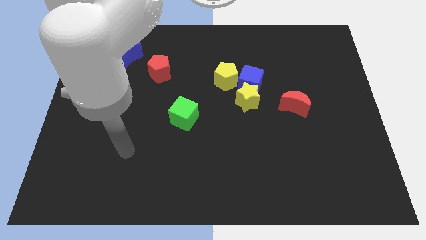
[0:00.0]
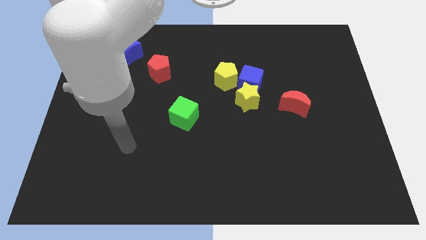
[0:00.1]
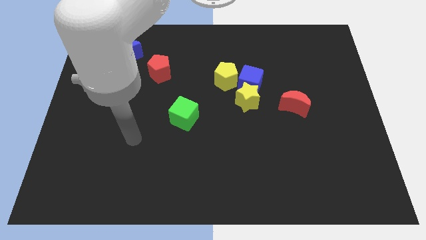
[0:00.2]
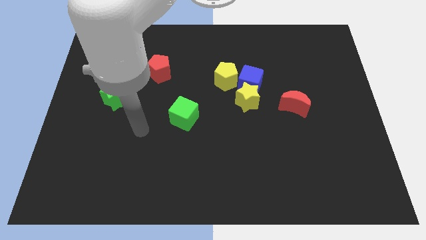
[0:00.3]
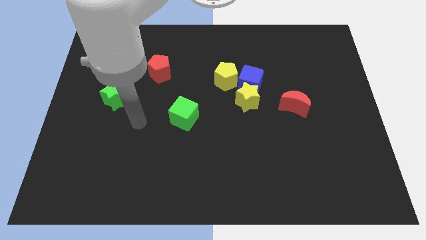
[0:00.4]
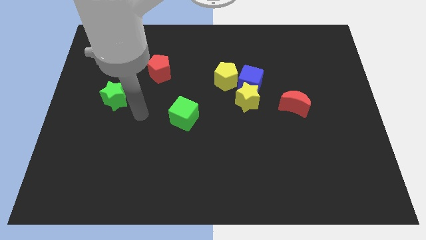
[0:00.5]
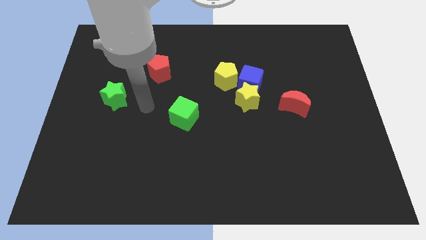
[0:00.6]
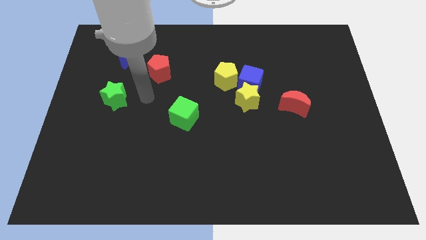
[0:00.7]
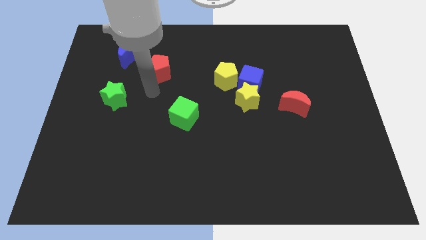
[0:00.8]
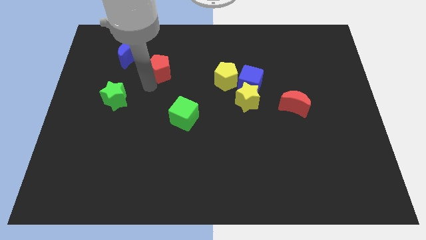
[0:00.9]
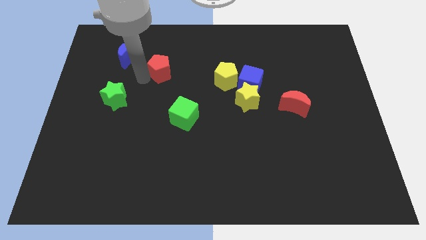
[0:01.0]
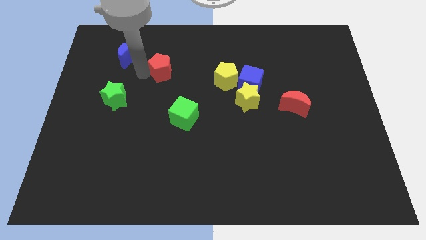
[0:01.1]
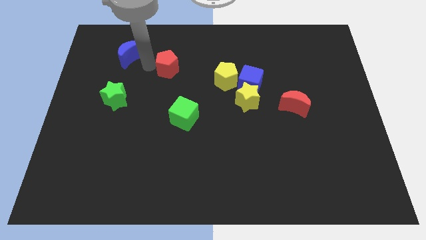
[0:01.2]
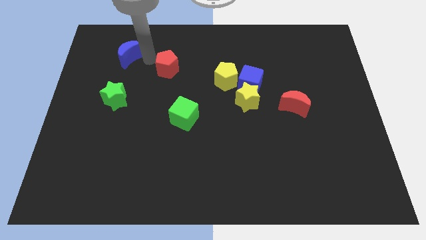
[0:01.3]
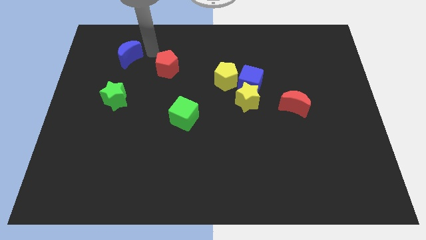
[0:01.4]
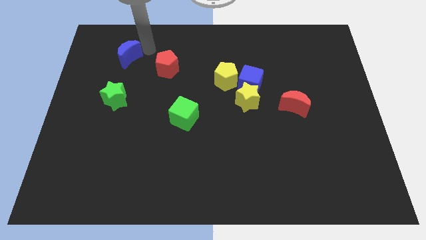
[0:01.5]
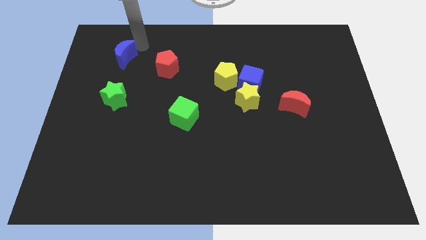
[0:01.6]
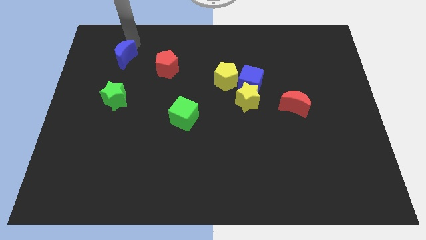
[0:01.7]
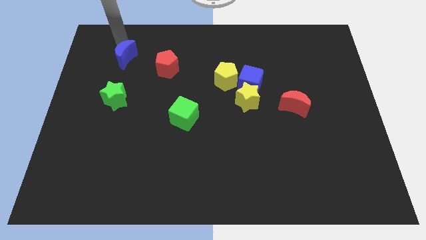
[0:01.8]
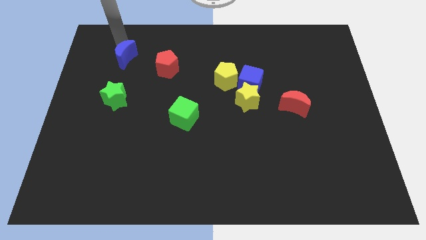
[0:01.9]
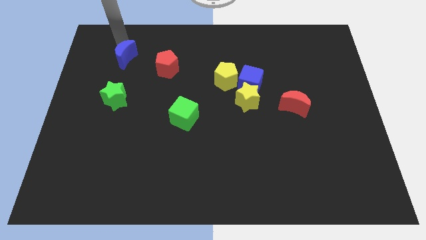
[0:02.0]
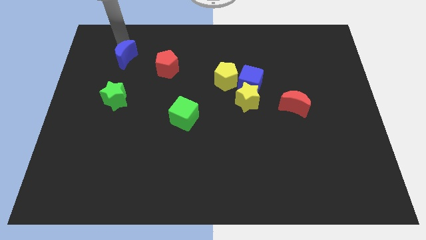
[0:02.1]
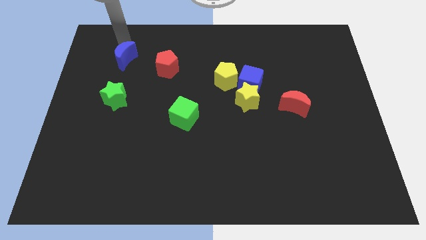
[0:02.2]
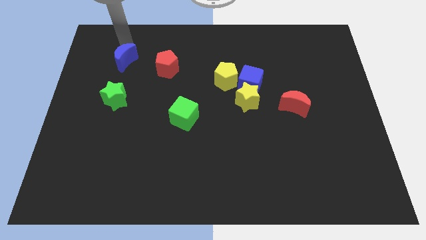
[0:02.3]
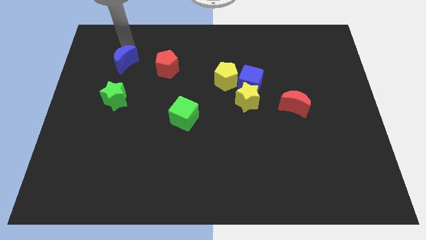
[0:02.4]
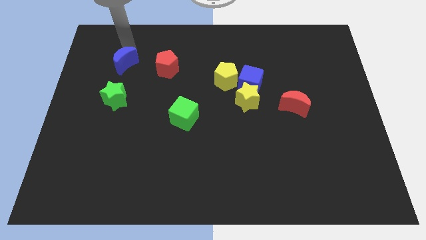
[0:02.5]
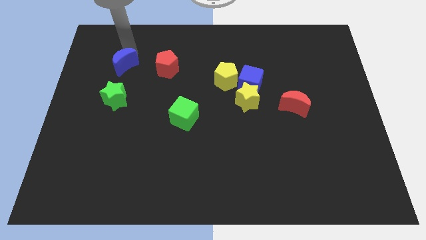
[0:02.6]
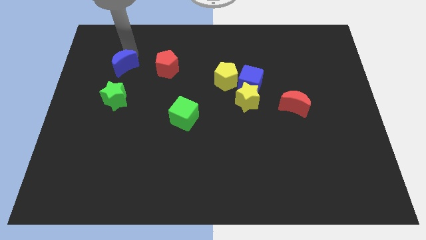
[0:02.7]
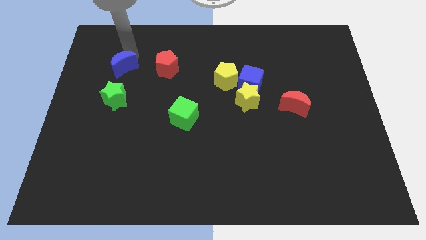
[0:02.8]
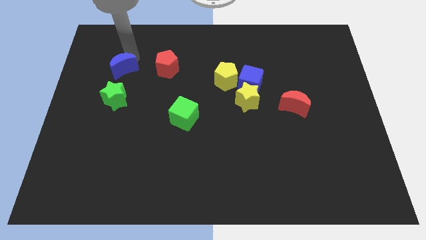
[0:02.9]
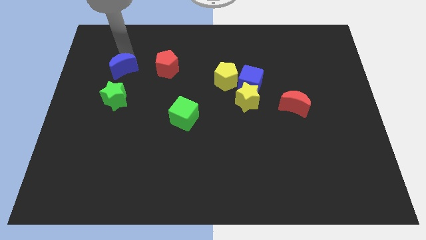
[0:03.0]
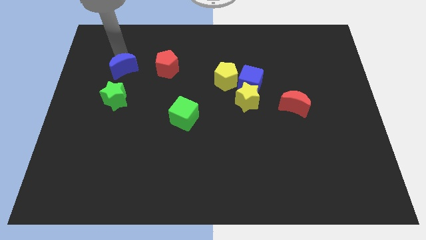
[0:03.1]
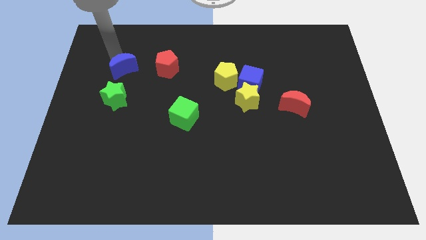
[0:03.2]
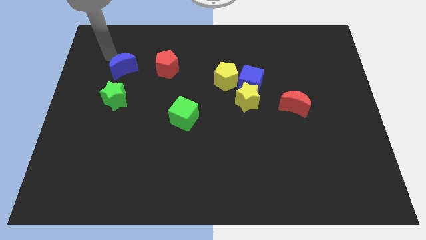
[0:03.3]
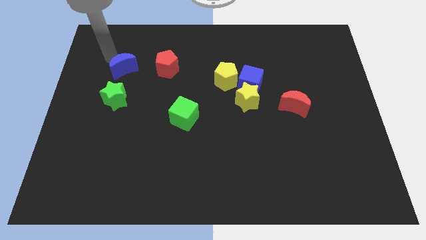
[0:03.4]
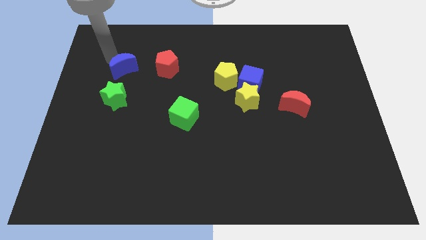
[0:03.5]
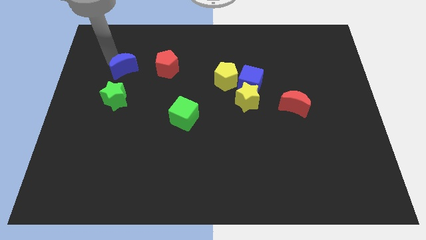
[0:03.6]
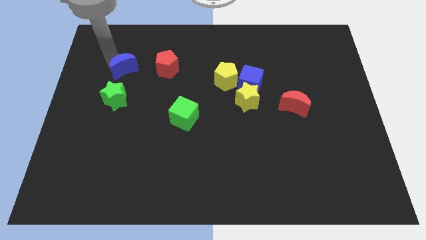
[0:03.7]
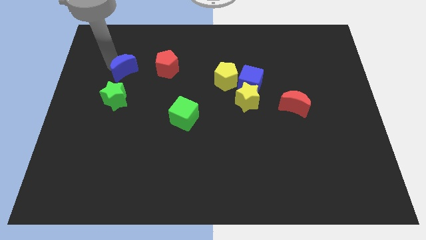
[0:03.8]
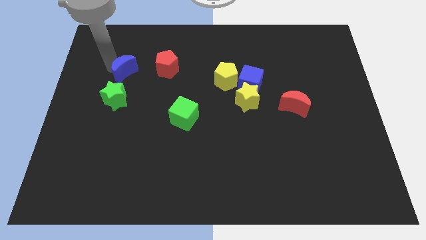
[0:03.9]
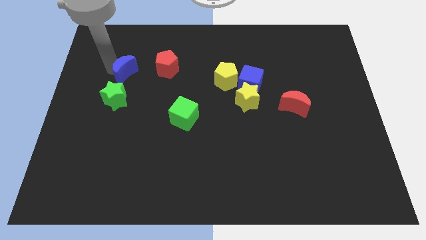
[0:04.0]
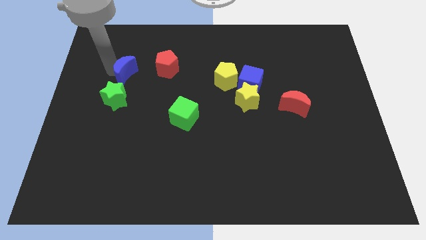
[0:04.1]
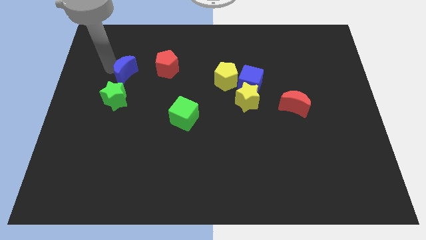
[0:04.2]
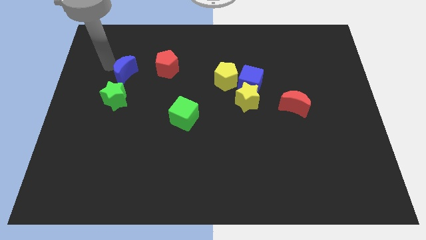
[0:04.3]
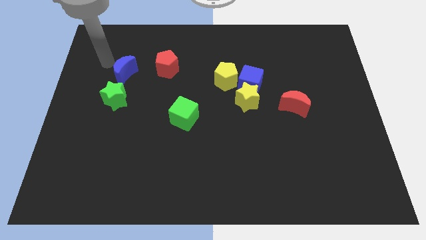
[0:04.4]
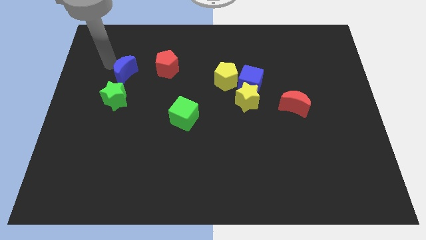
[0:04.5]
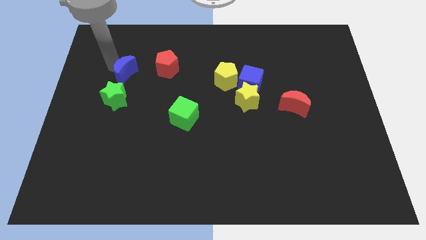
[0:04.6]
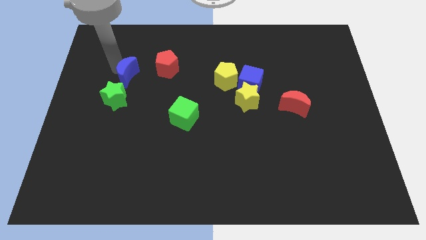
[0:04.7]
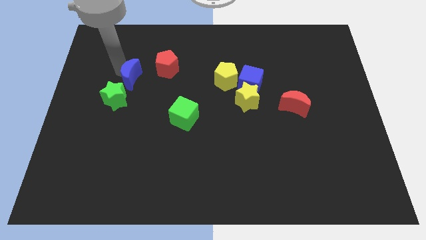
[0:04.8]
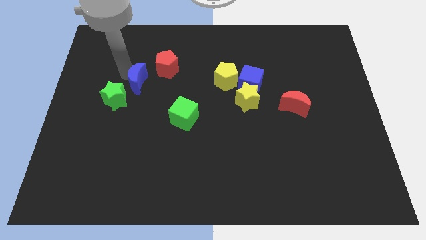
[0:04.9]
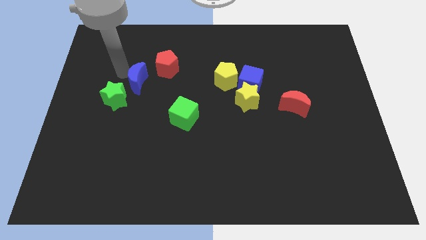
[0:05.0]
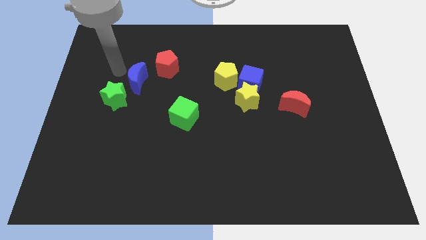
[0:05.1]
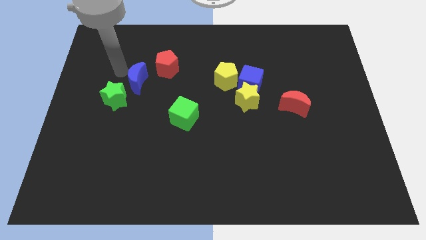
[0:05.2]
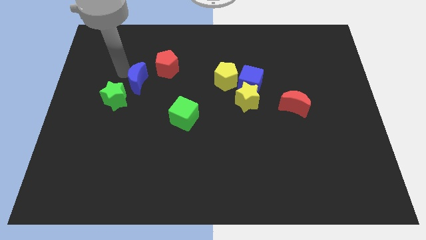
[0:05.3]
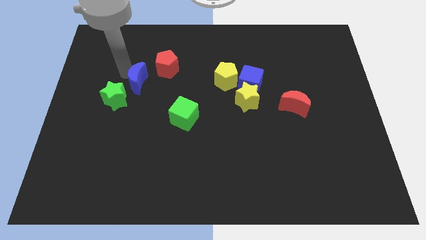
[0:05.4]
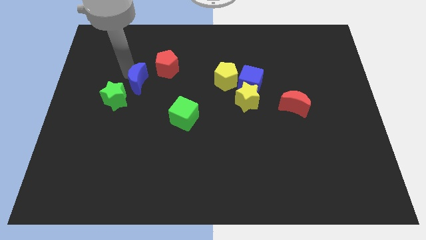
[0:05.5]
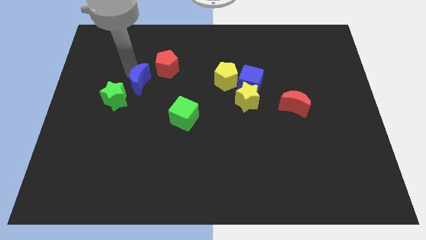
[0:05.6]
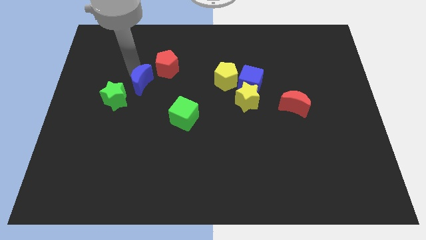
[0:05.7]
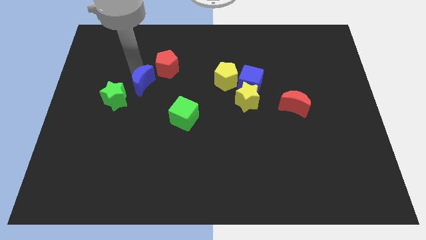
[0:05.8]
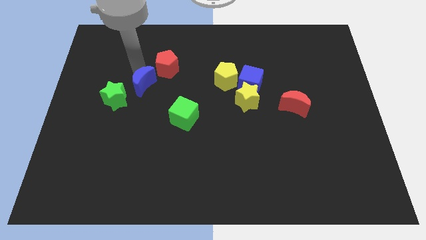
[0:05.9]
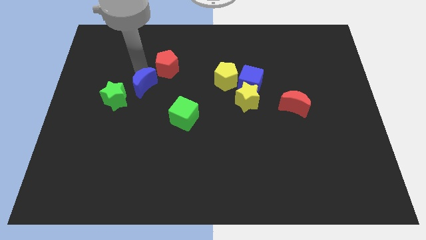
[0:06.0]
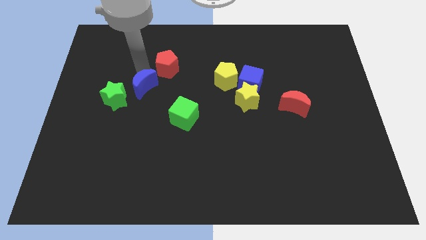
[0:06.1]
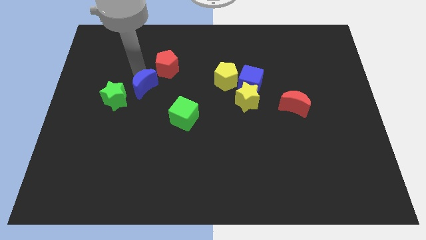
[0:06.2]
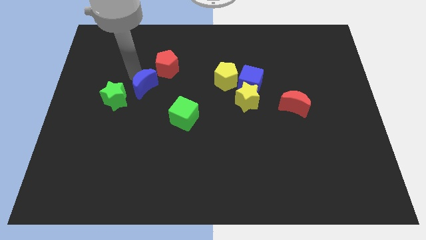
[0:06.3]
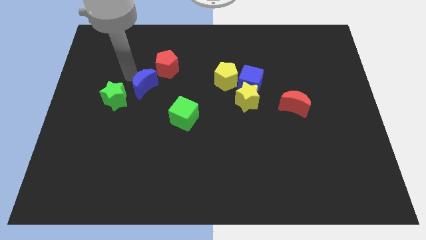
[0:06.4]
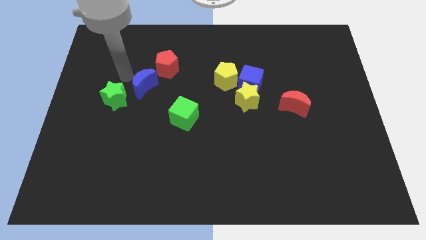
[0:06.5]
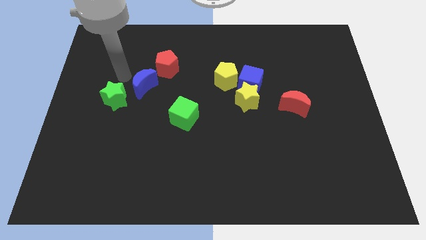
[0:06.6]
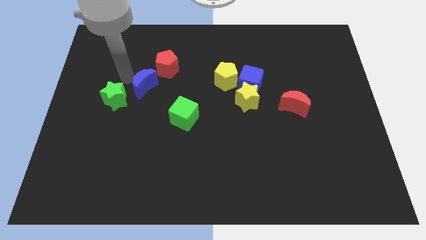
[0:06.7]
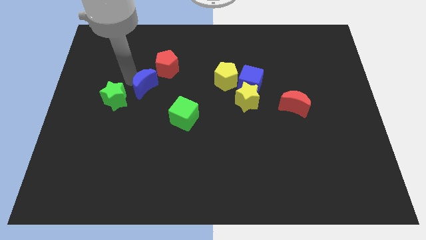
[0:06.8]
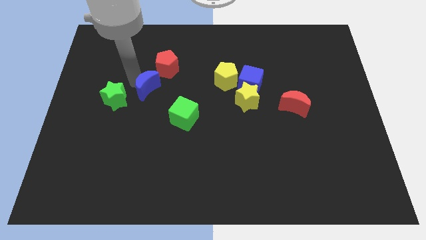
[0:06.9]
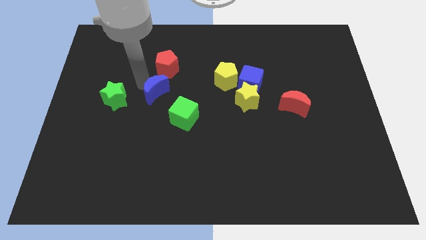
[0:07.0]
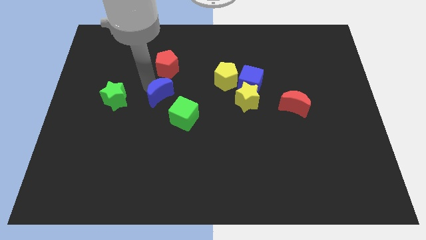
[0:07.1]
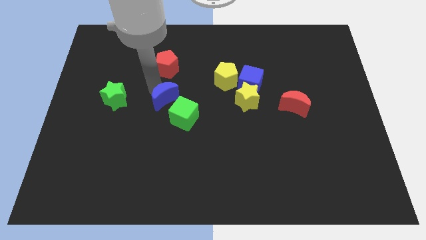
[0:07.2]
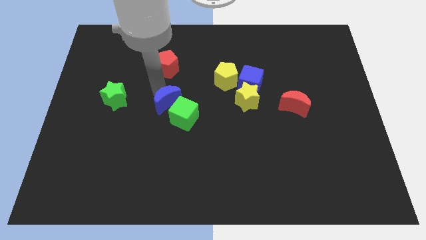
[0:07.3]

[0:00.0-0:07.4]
move the blue moon close to the green cube
